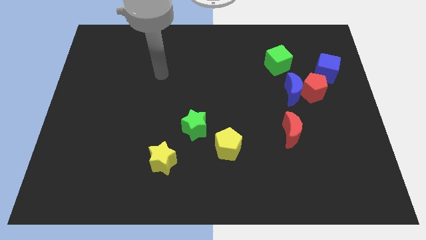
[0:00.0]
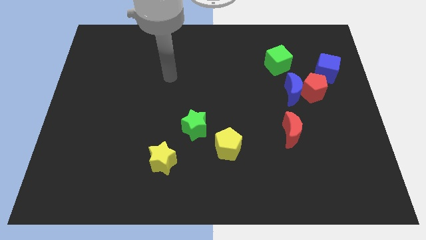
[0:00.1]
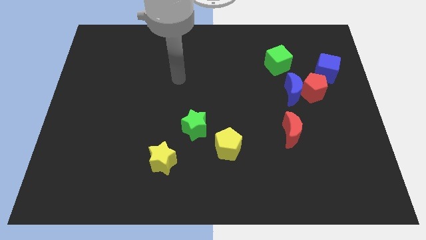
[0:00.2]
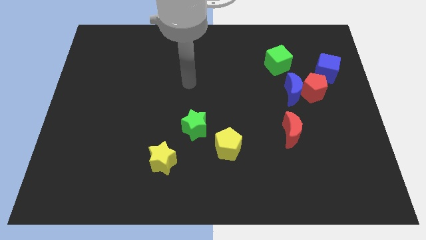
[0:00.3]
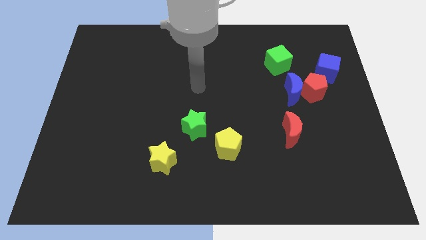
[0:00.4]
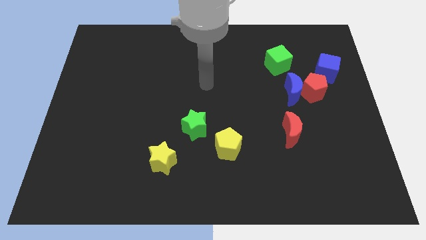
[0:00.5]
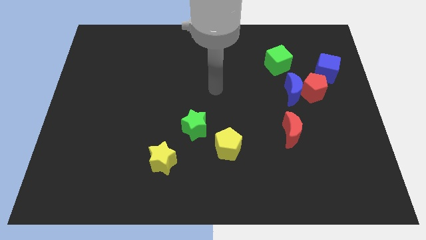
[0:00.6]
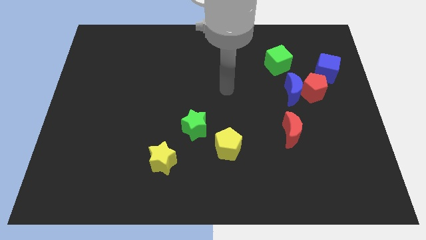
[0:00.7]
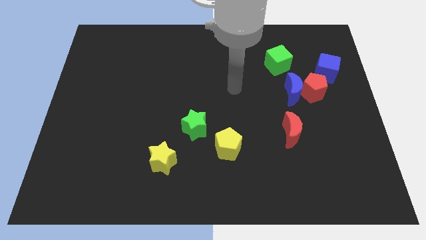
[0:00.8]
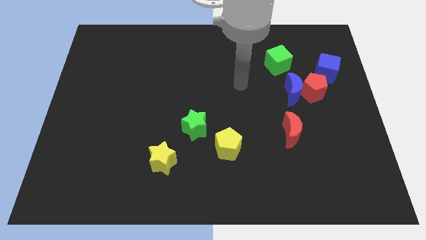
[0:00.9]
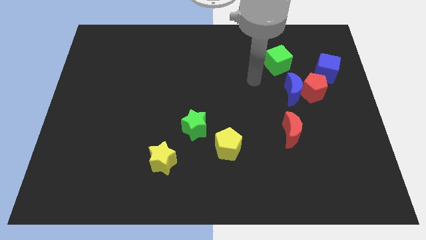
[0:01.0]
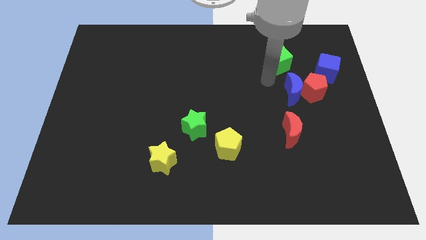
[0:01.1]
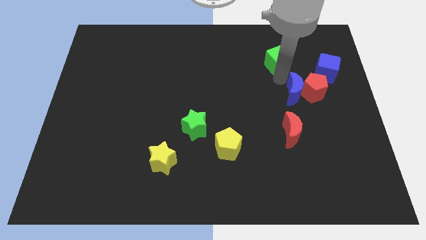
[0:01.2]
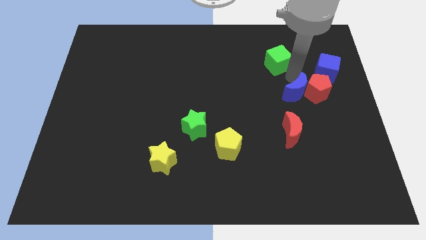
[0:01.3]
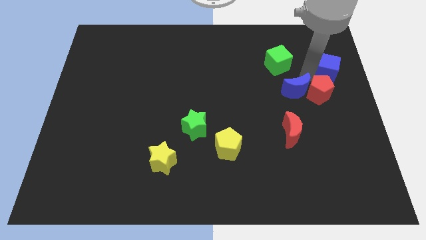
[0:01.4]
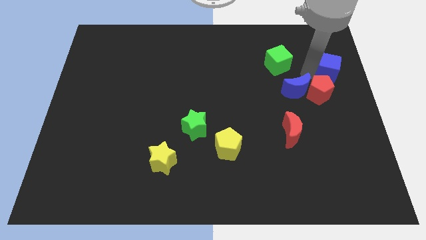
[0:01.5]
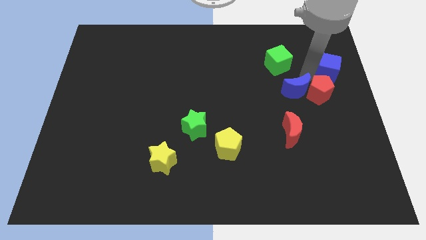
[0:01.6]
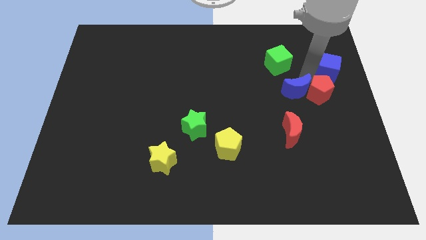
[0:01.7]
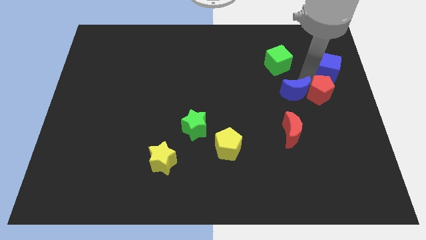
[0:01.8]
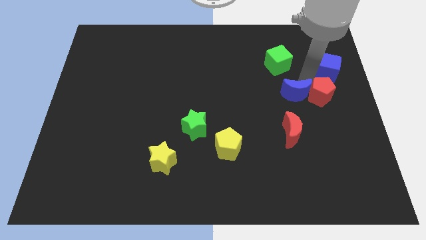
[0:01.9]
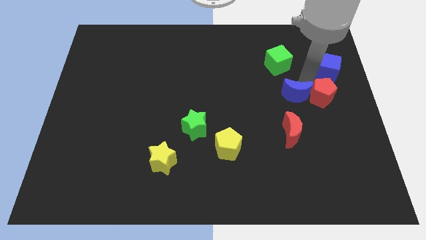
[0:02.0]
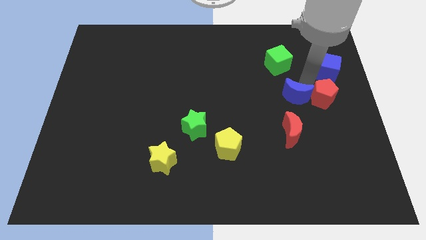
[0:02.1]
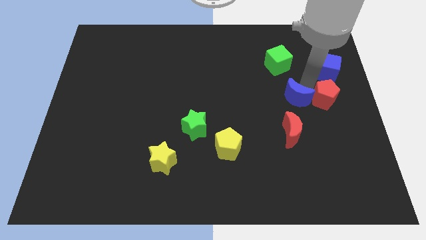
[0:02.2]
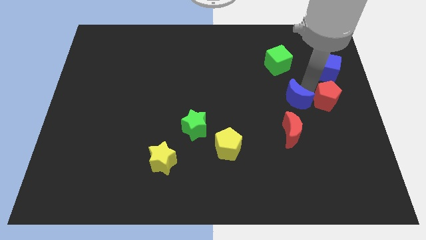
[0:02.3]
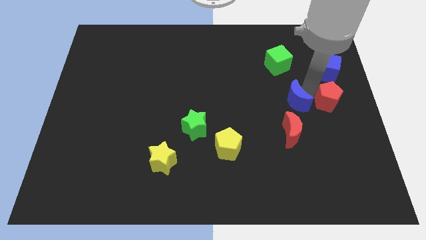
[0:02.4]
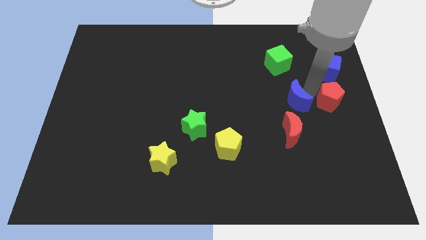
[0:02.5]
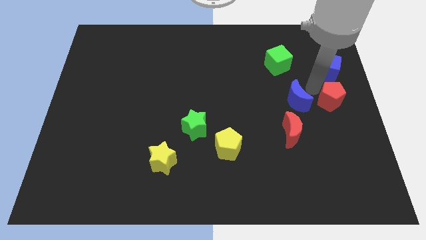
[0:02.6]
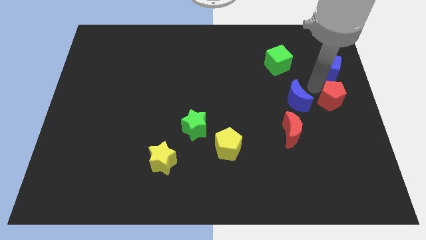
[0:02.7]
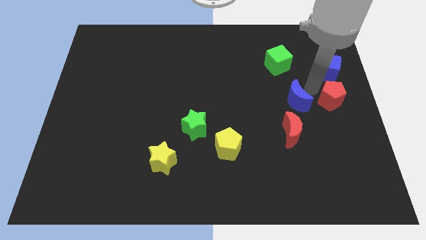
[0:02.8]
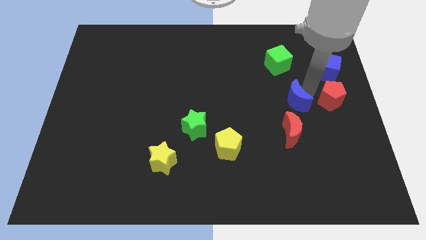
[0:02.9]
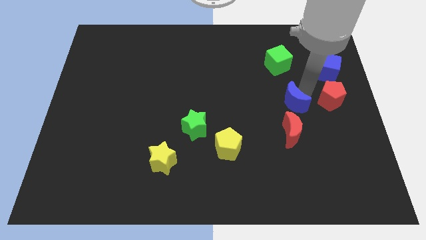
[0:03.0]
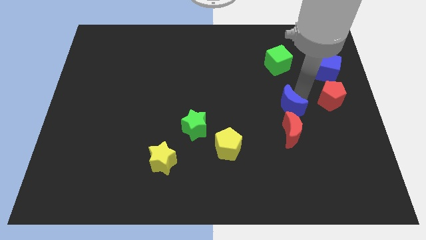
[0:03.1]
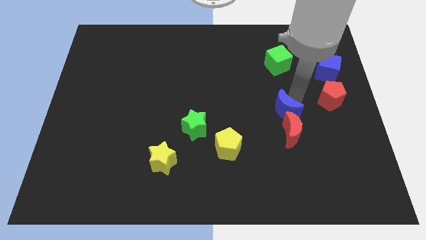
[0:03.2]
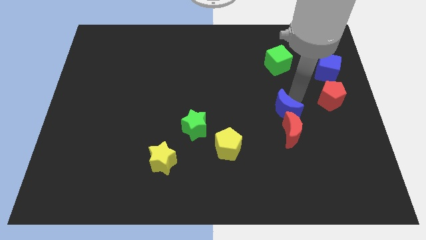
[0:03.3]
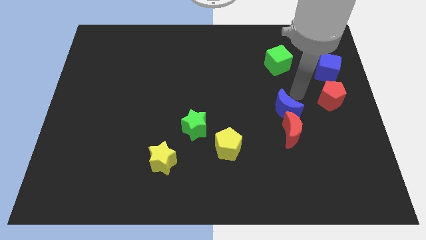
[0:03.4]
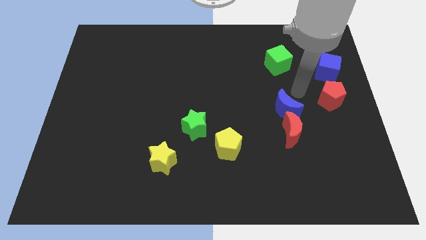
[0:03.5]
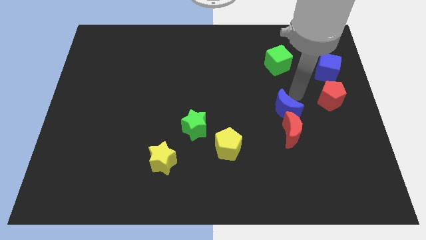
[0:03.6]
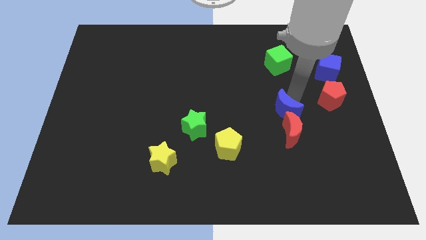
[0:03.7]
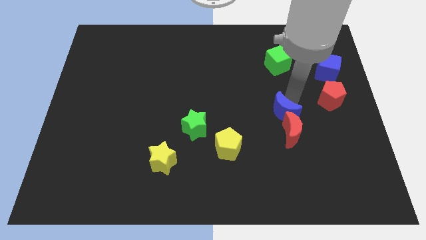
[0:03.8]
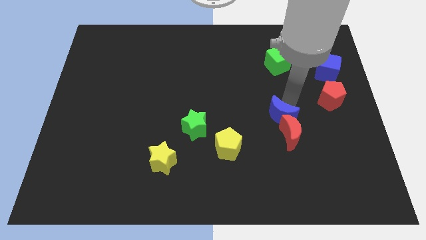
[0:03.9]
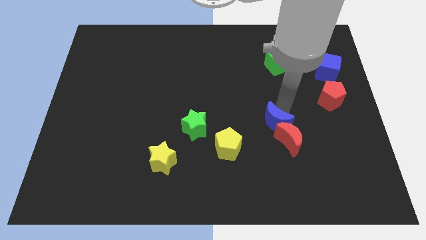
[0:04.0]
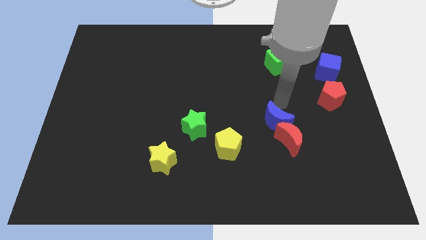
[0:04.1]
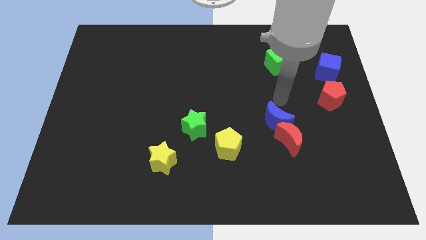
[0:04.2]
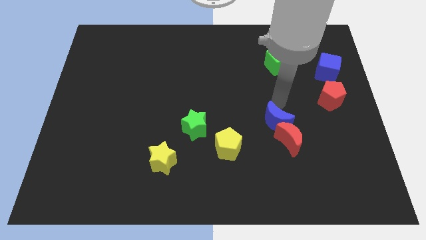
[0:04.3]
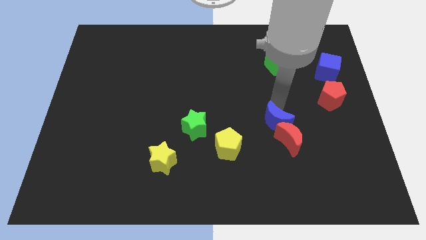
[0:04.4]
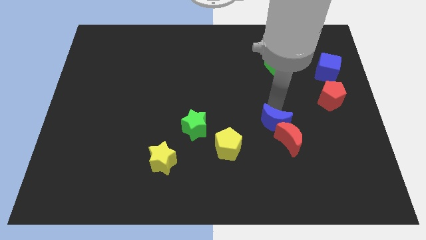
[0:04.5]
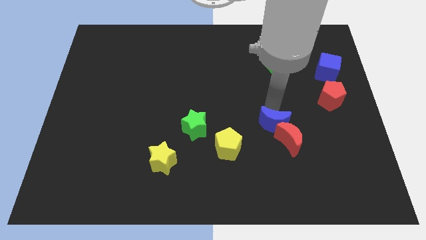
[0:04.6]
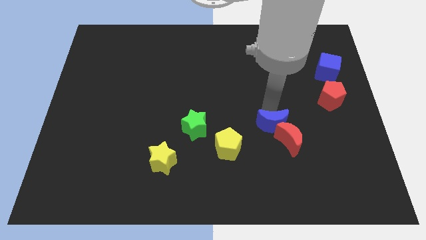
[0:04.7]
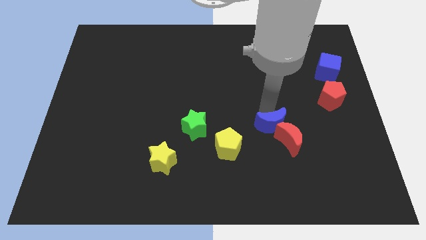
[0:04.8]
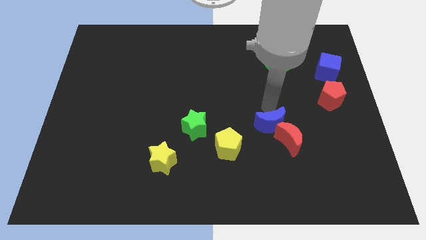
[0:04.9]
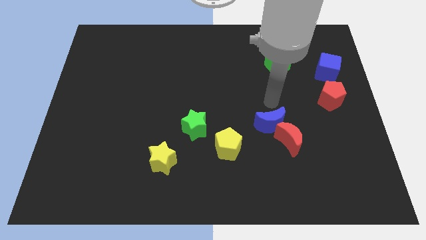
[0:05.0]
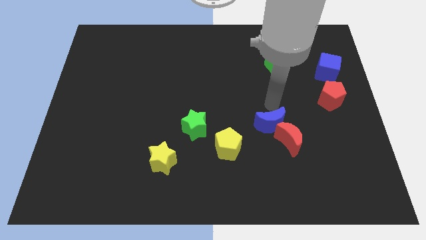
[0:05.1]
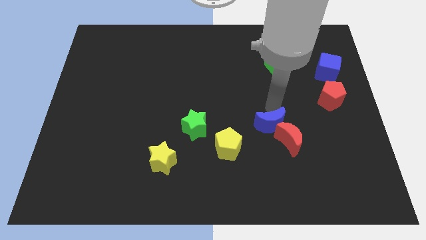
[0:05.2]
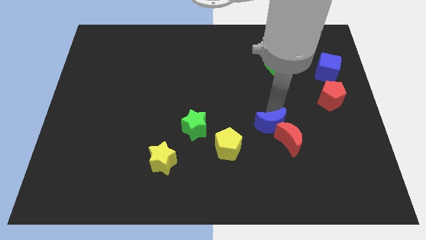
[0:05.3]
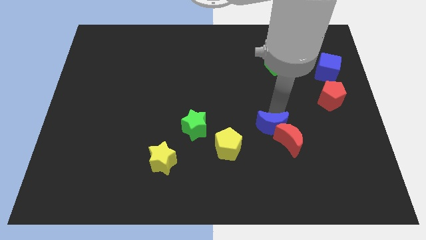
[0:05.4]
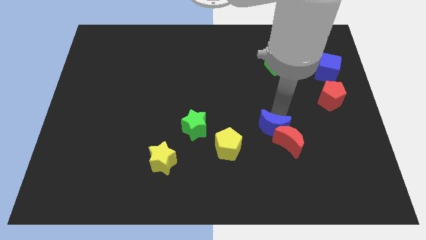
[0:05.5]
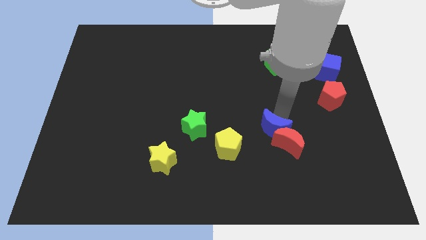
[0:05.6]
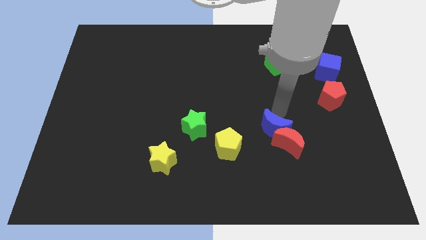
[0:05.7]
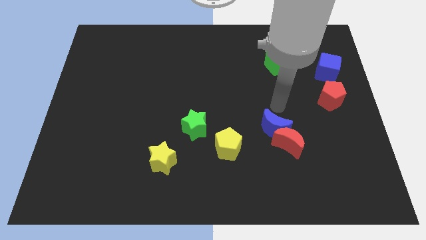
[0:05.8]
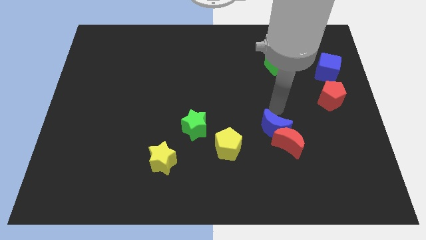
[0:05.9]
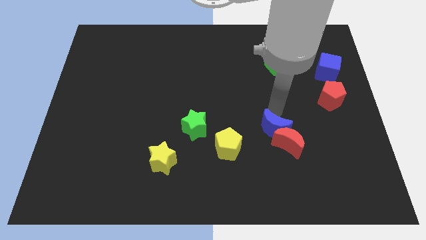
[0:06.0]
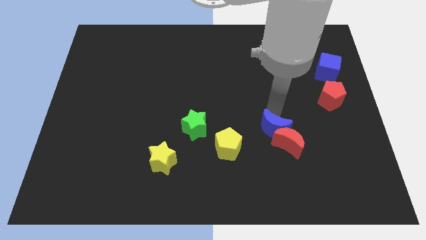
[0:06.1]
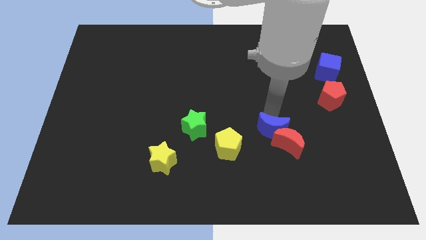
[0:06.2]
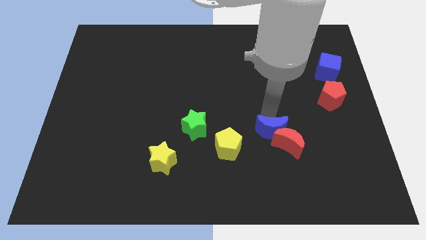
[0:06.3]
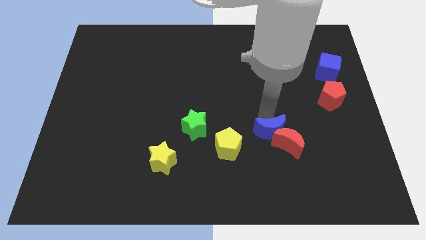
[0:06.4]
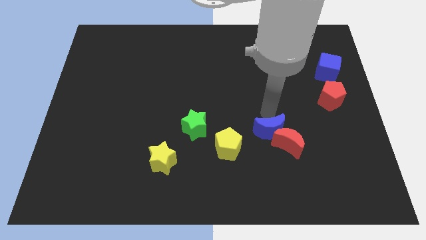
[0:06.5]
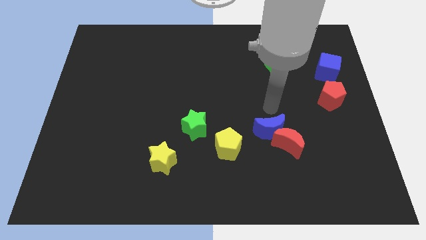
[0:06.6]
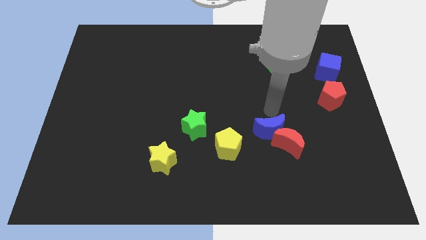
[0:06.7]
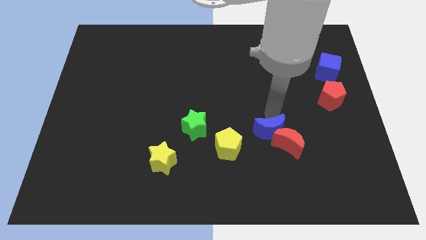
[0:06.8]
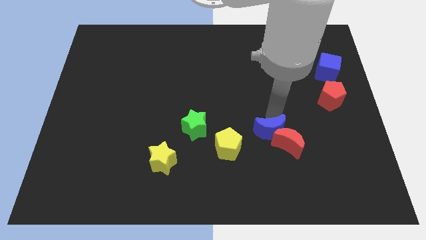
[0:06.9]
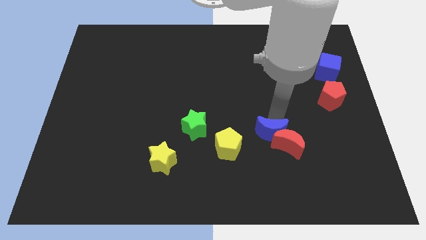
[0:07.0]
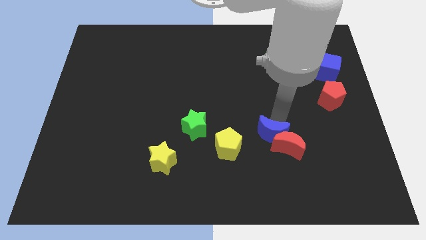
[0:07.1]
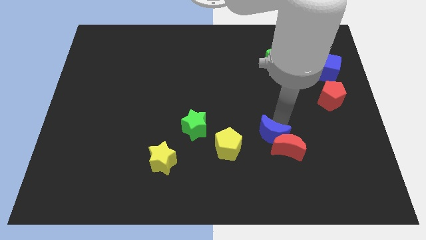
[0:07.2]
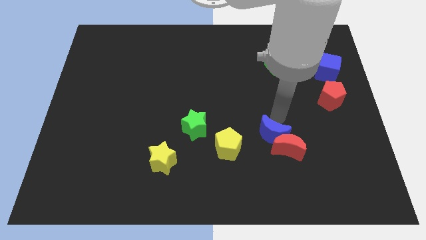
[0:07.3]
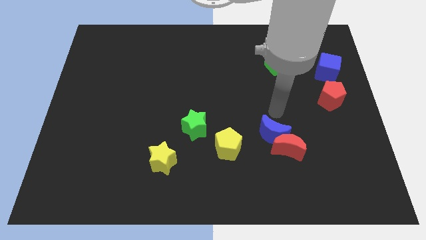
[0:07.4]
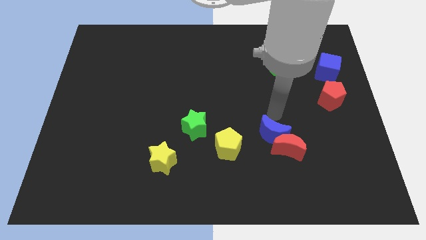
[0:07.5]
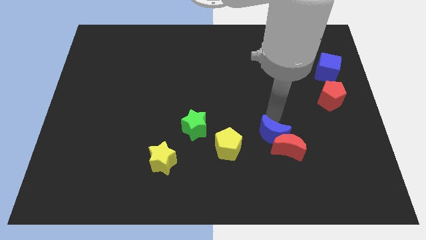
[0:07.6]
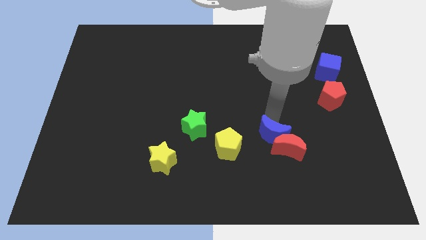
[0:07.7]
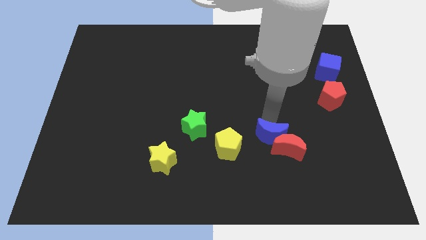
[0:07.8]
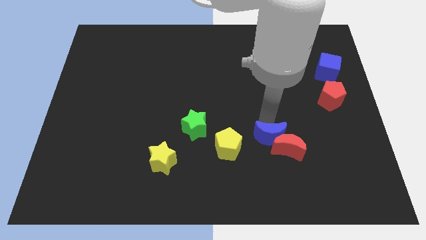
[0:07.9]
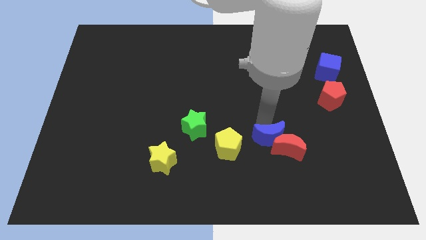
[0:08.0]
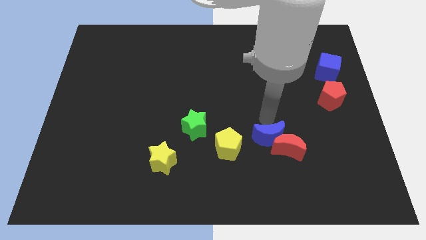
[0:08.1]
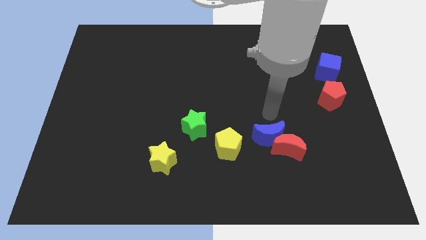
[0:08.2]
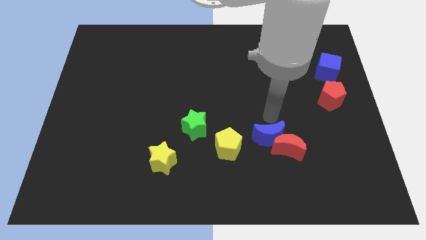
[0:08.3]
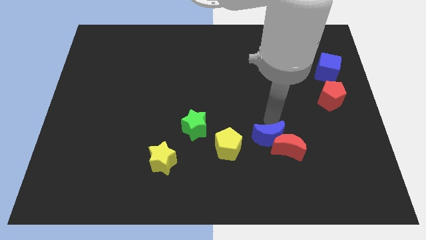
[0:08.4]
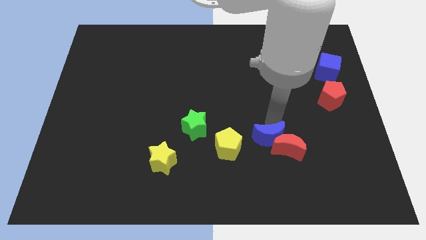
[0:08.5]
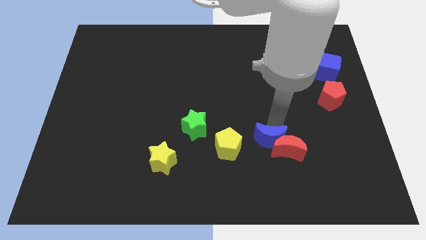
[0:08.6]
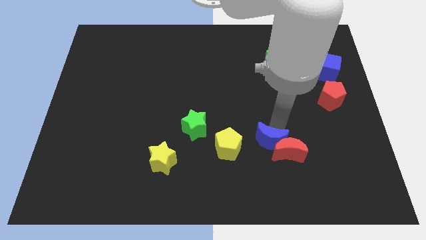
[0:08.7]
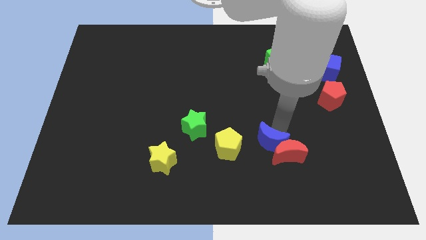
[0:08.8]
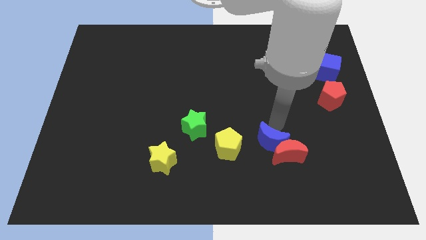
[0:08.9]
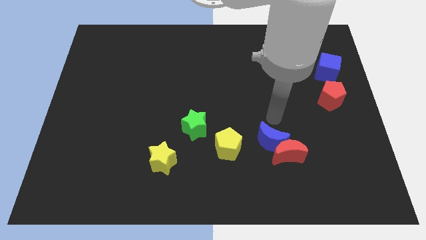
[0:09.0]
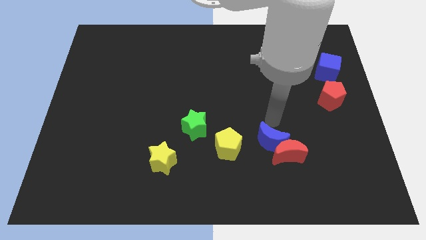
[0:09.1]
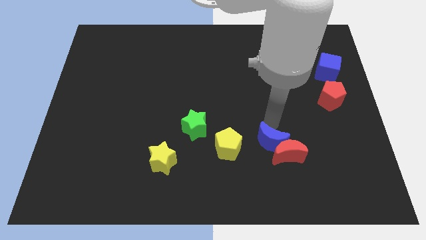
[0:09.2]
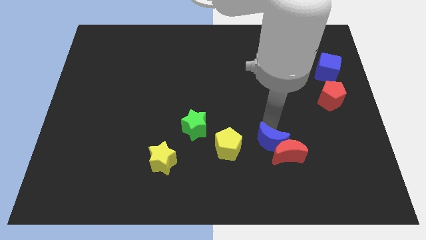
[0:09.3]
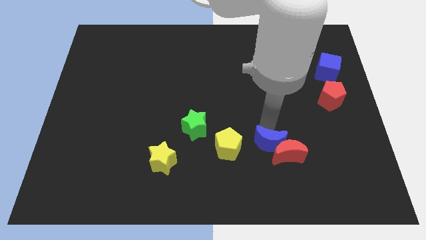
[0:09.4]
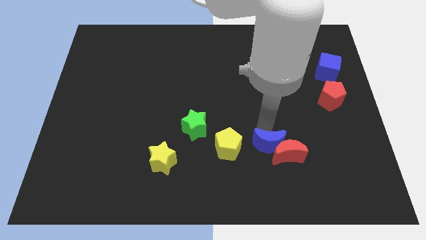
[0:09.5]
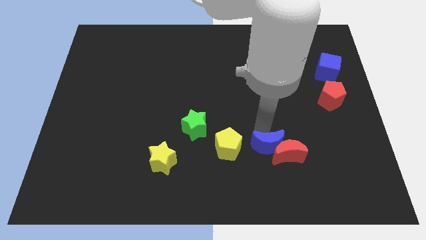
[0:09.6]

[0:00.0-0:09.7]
push the blue moon to the bottom left side of the red moon
